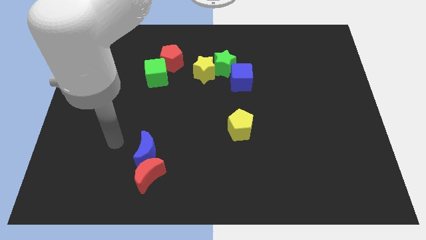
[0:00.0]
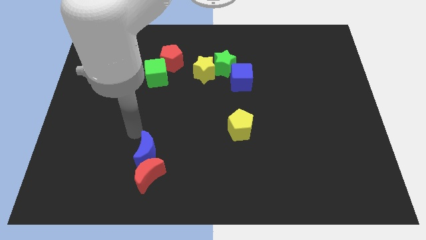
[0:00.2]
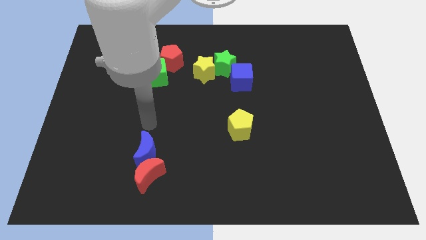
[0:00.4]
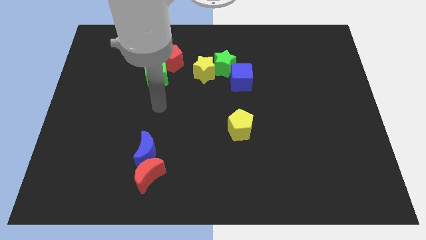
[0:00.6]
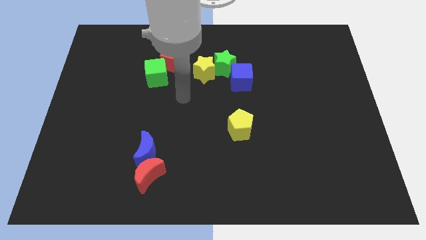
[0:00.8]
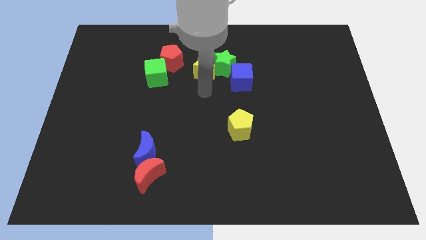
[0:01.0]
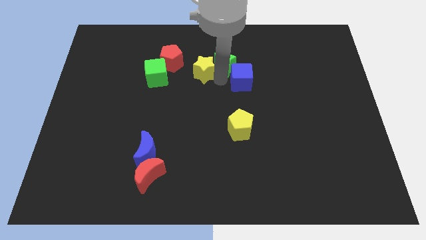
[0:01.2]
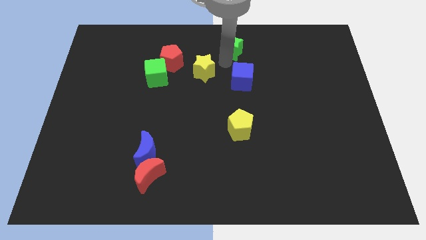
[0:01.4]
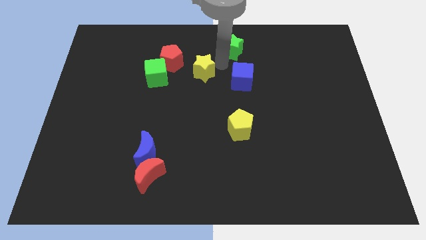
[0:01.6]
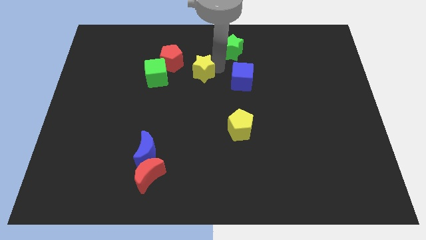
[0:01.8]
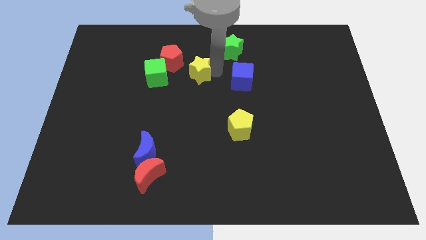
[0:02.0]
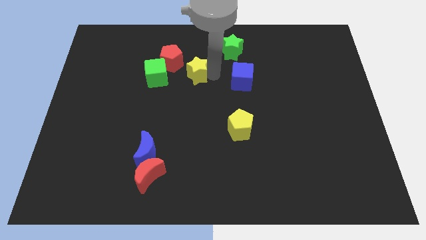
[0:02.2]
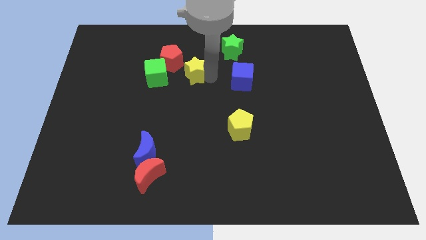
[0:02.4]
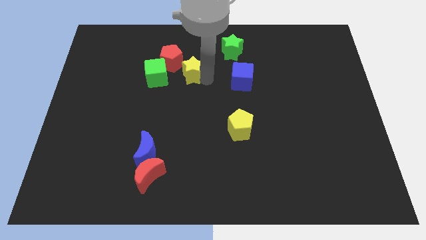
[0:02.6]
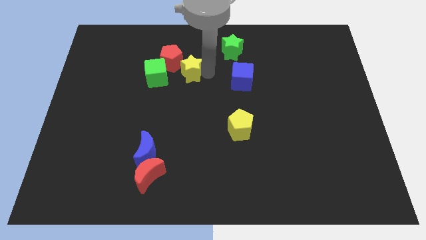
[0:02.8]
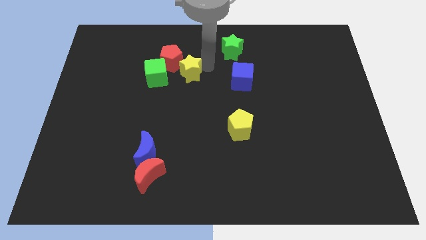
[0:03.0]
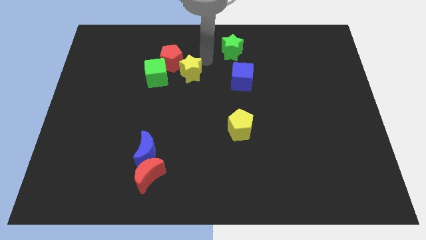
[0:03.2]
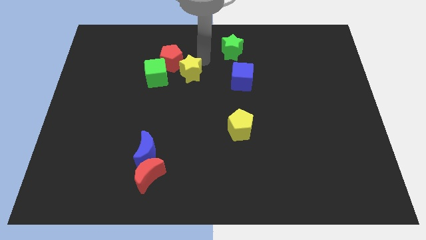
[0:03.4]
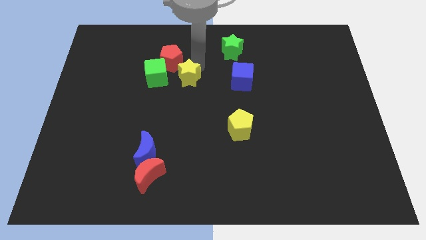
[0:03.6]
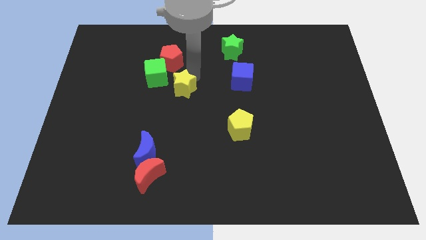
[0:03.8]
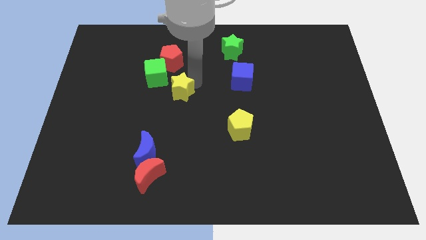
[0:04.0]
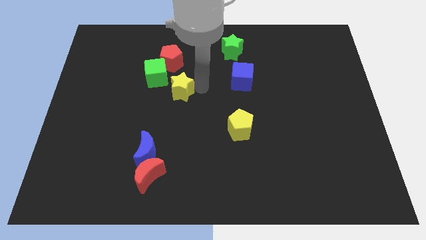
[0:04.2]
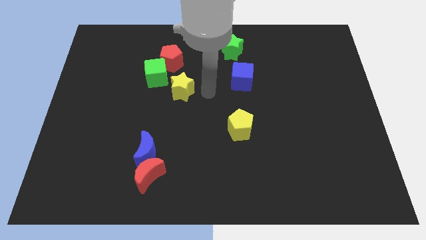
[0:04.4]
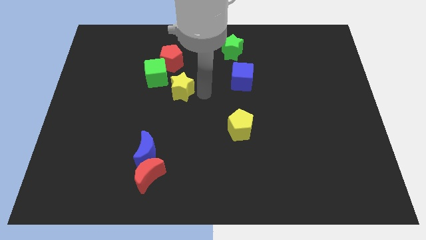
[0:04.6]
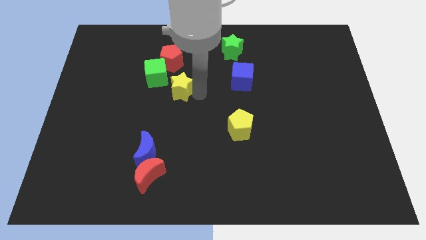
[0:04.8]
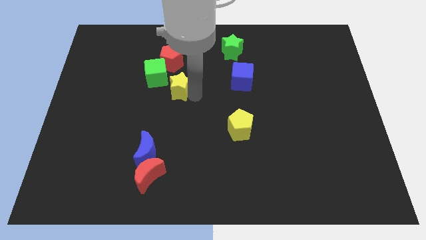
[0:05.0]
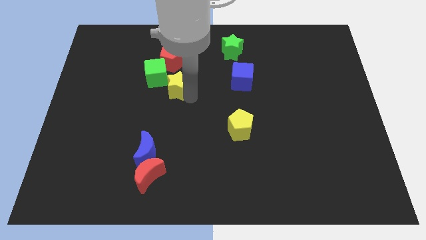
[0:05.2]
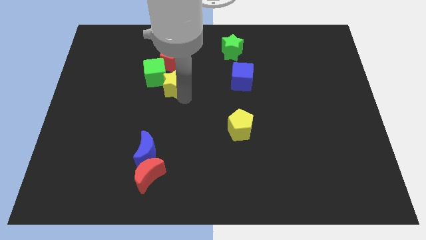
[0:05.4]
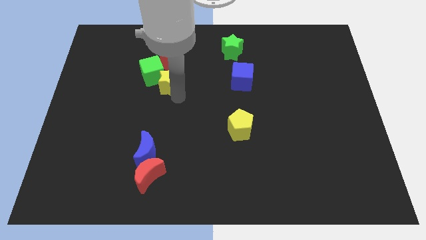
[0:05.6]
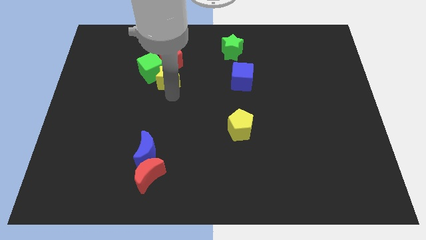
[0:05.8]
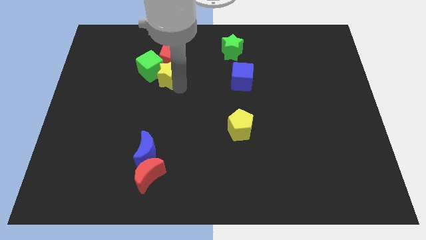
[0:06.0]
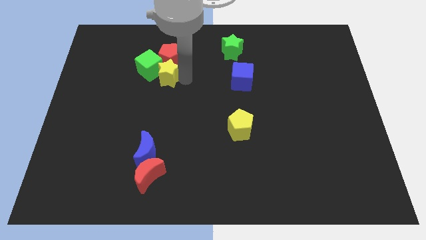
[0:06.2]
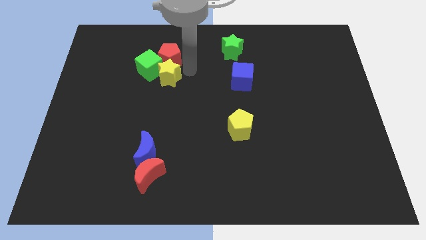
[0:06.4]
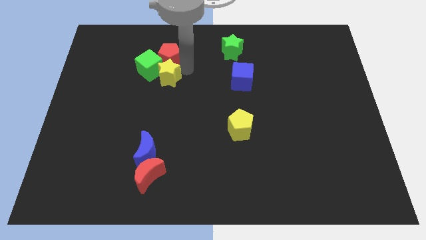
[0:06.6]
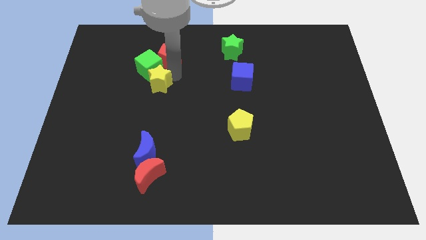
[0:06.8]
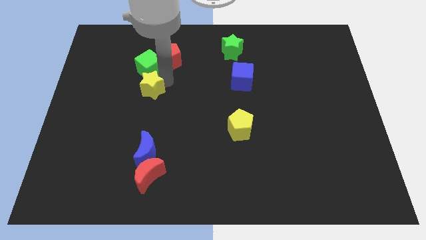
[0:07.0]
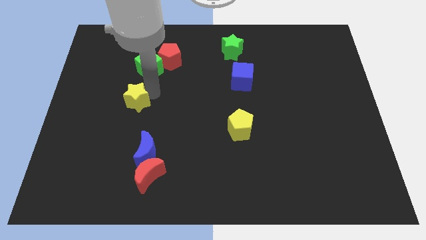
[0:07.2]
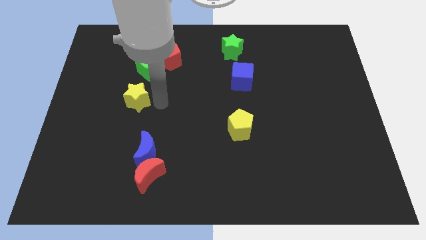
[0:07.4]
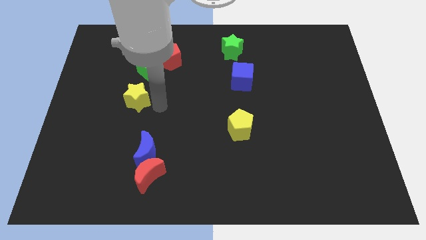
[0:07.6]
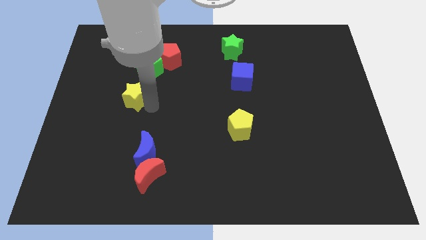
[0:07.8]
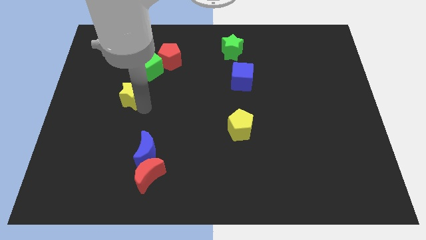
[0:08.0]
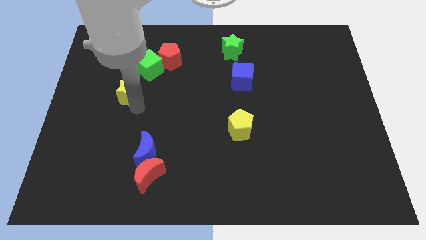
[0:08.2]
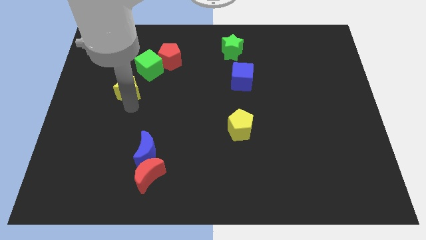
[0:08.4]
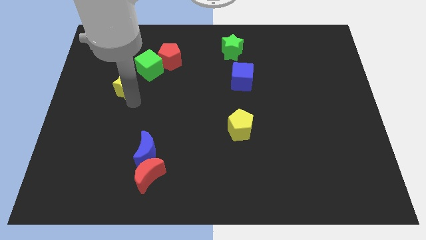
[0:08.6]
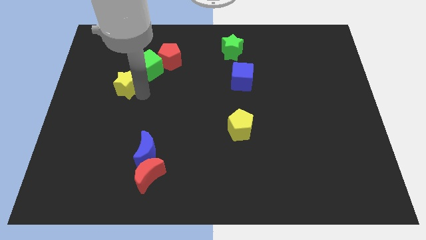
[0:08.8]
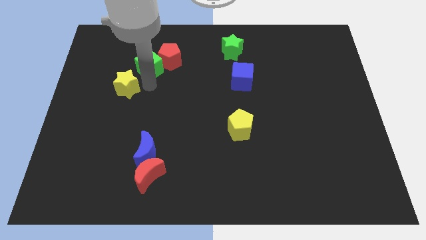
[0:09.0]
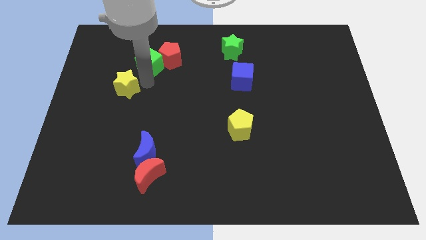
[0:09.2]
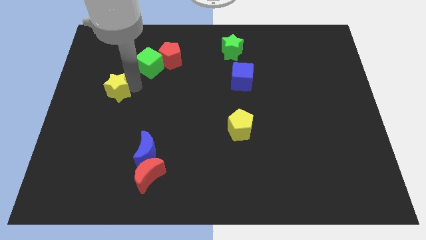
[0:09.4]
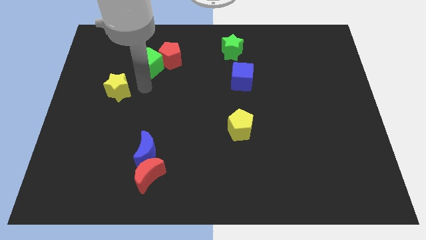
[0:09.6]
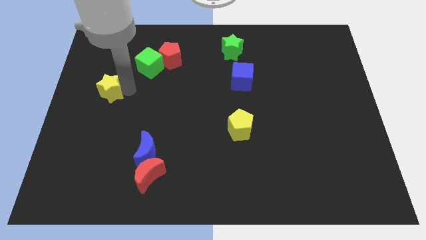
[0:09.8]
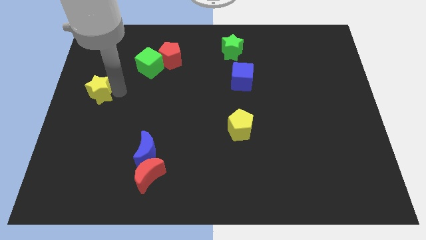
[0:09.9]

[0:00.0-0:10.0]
slide the yellow star to the left side of the board

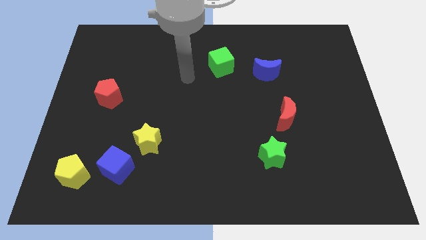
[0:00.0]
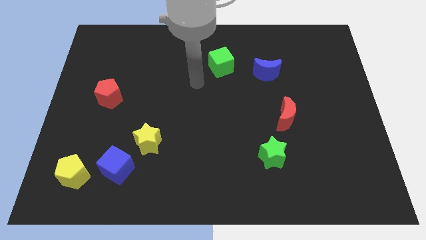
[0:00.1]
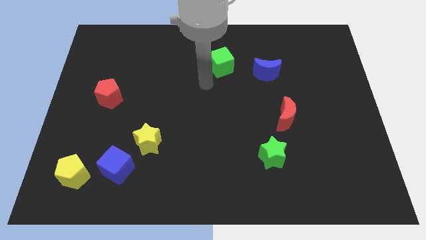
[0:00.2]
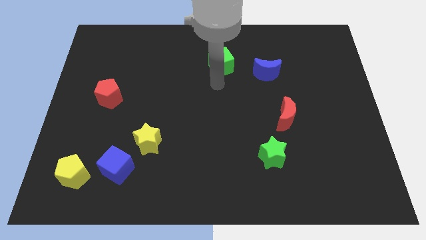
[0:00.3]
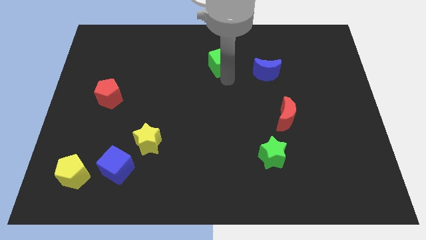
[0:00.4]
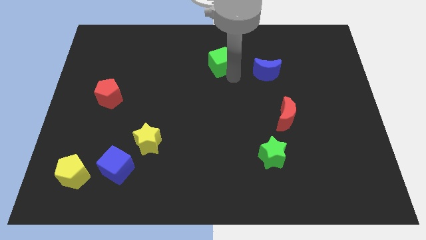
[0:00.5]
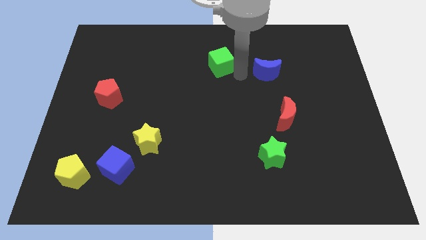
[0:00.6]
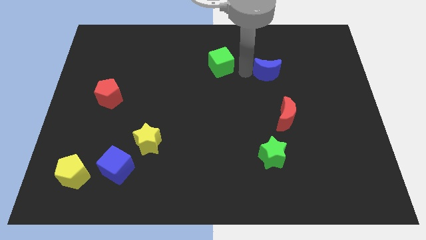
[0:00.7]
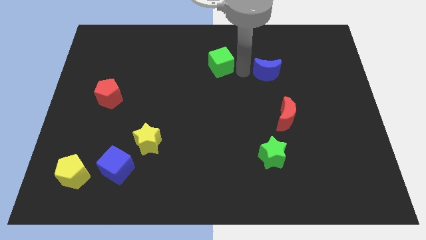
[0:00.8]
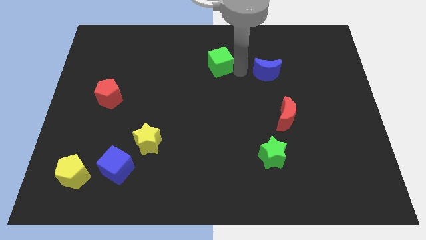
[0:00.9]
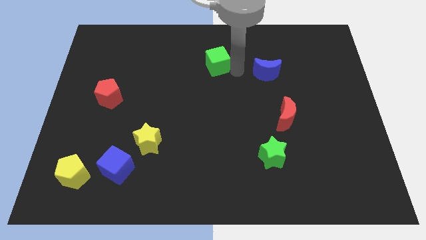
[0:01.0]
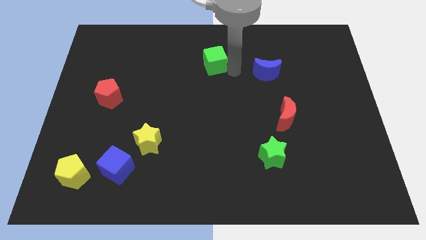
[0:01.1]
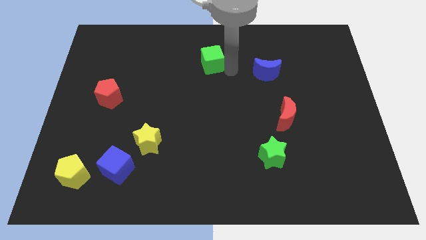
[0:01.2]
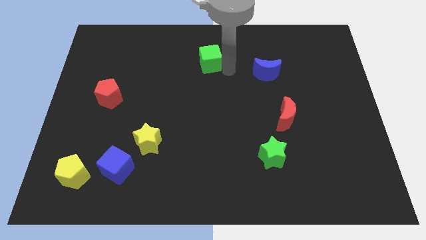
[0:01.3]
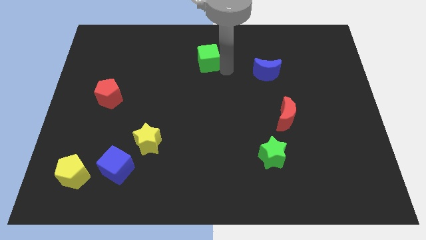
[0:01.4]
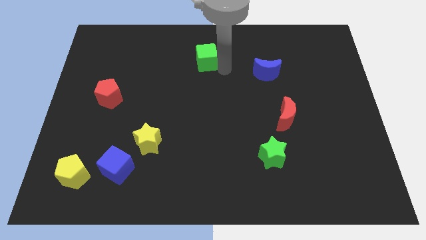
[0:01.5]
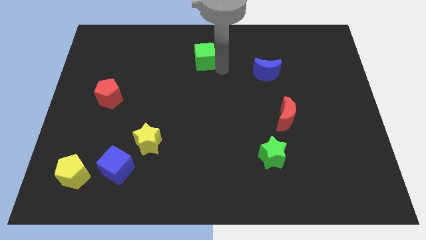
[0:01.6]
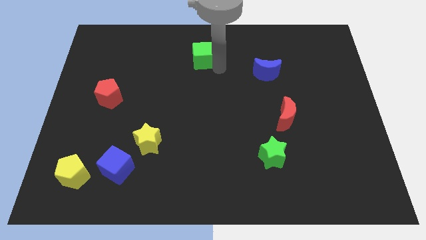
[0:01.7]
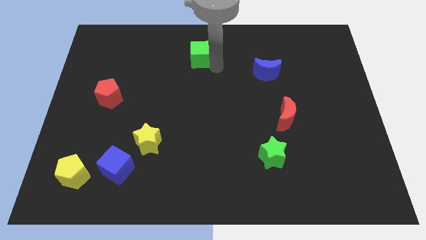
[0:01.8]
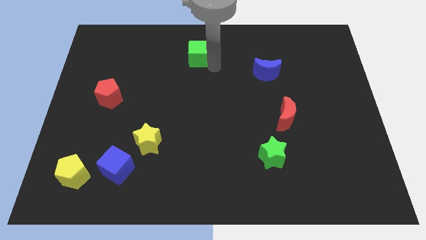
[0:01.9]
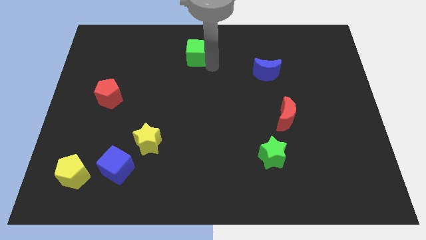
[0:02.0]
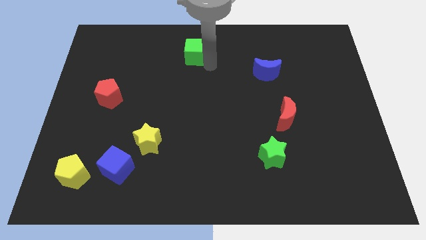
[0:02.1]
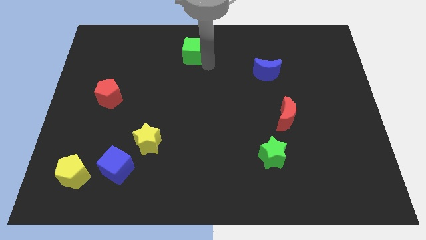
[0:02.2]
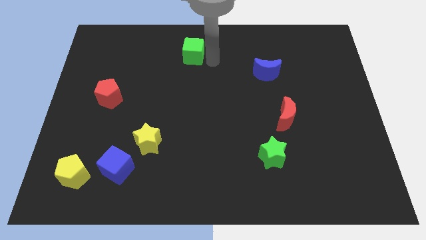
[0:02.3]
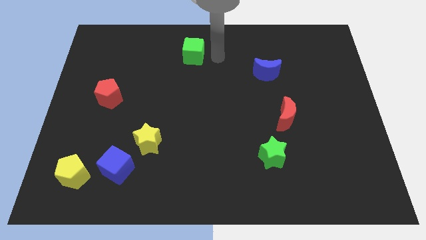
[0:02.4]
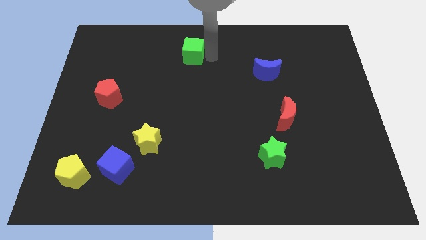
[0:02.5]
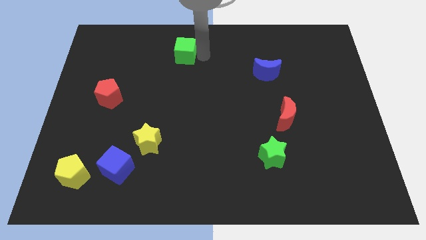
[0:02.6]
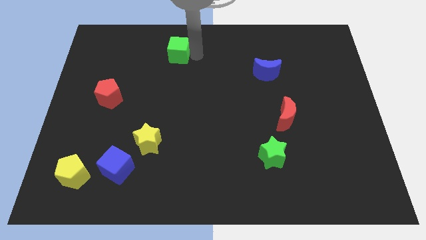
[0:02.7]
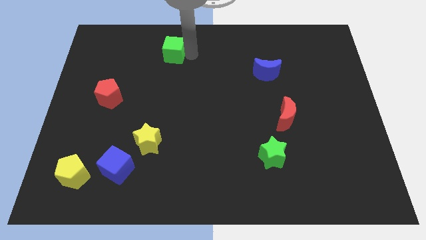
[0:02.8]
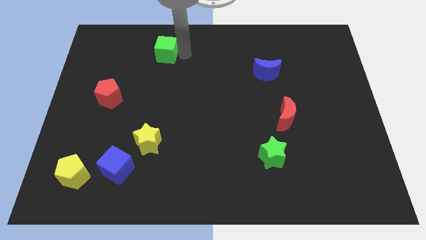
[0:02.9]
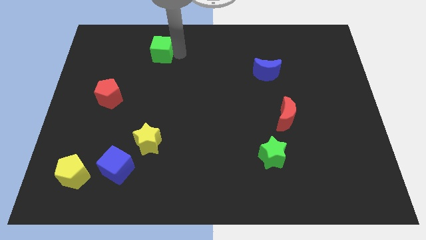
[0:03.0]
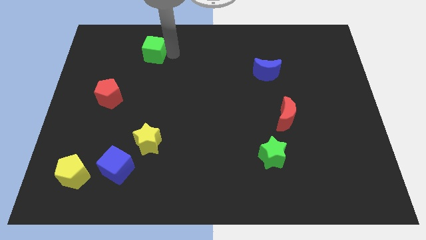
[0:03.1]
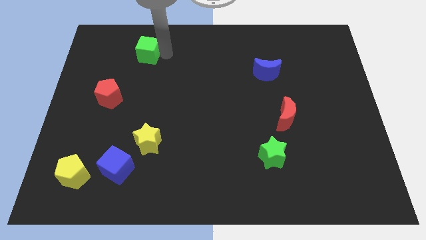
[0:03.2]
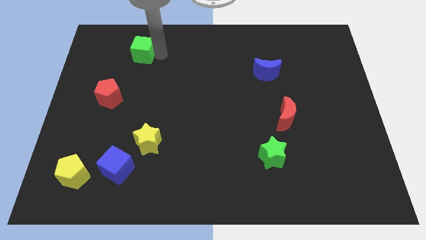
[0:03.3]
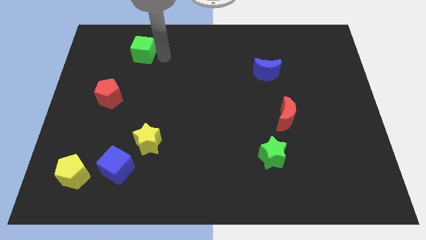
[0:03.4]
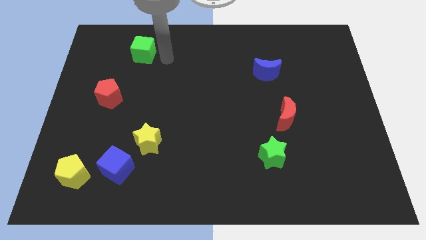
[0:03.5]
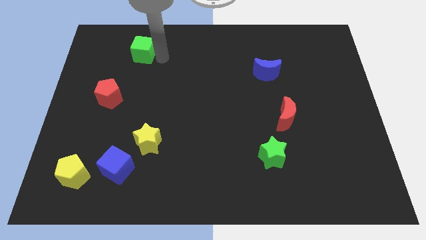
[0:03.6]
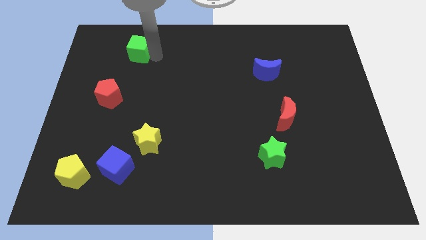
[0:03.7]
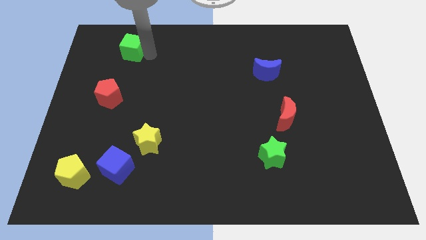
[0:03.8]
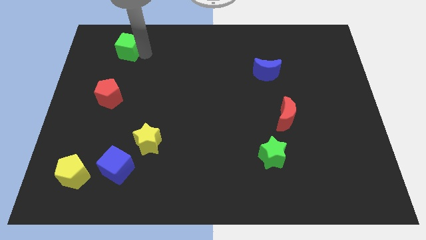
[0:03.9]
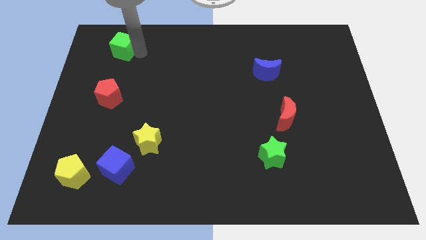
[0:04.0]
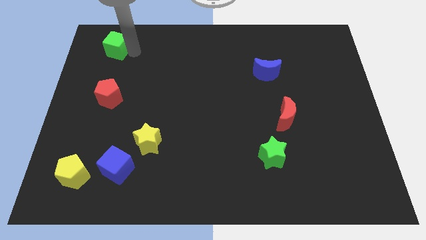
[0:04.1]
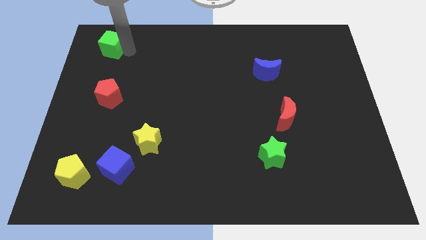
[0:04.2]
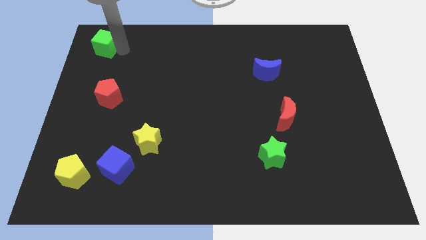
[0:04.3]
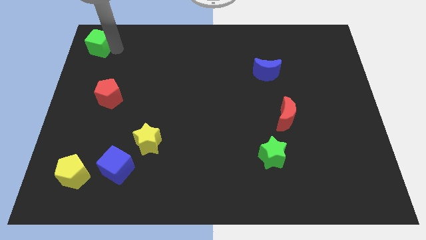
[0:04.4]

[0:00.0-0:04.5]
slide the green cube to the top left
